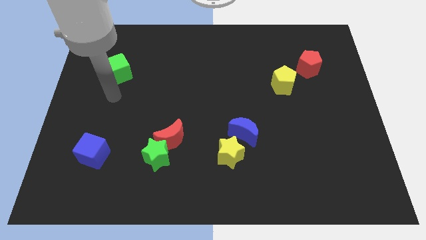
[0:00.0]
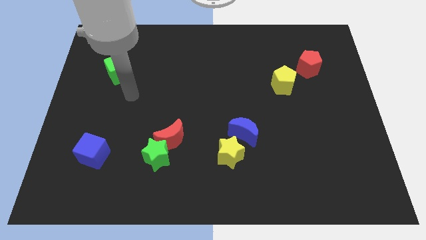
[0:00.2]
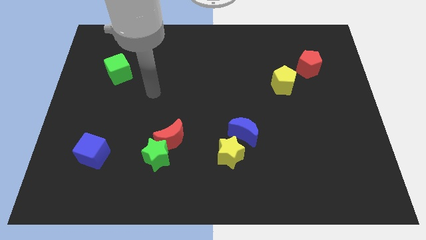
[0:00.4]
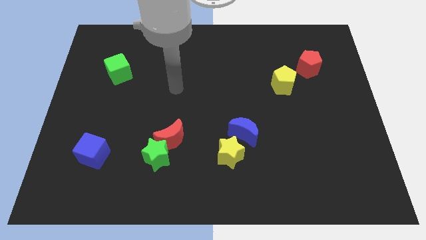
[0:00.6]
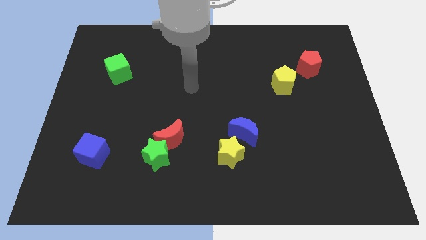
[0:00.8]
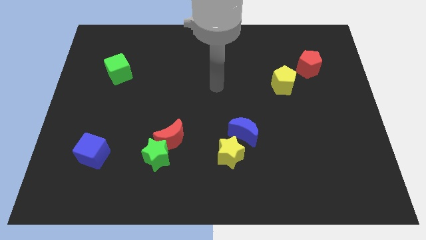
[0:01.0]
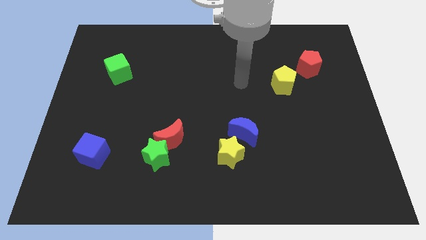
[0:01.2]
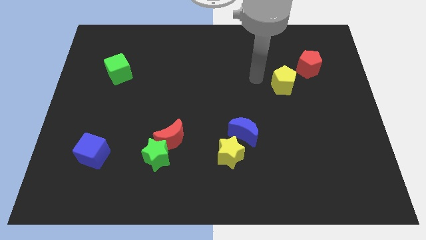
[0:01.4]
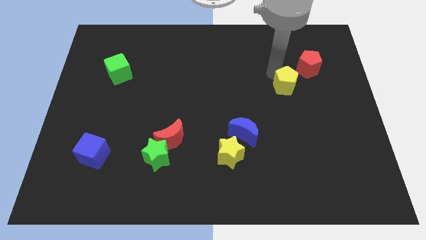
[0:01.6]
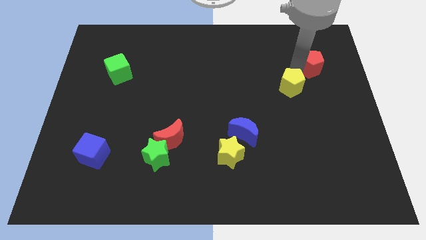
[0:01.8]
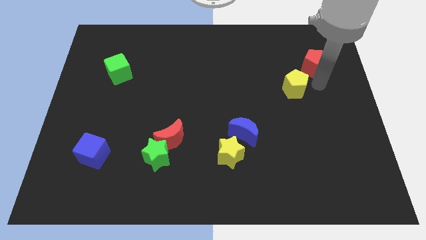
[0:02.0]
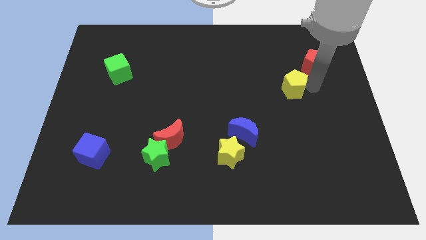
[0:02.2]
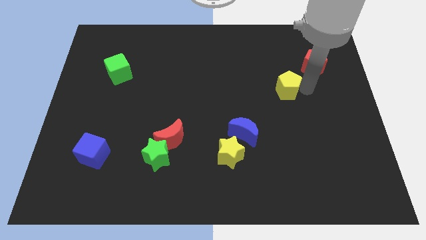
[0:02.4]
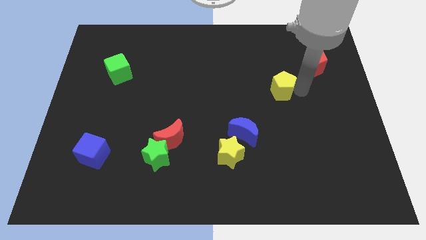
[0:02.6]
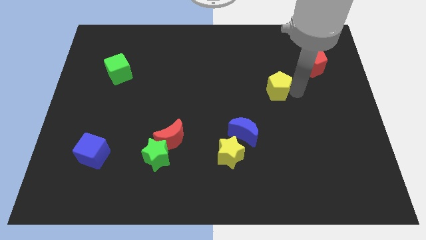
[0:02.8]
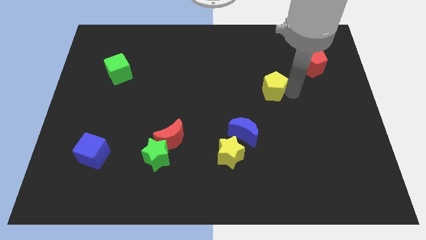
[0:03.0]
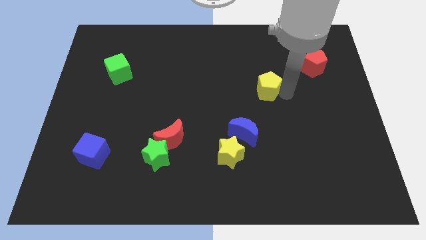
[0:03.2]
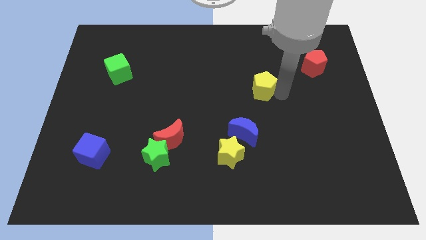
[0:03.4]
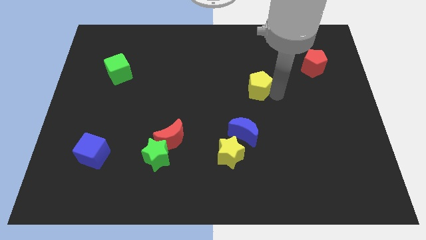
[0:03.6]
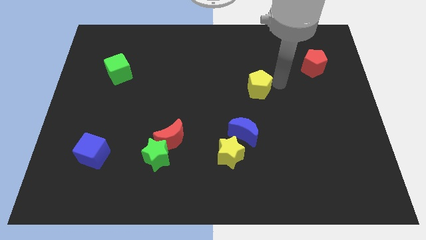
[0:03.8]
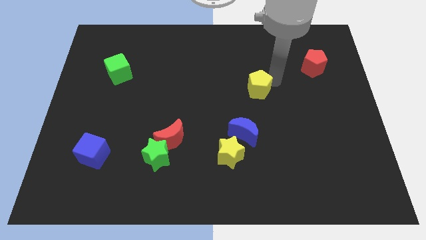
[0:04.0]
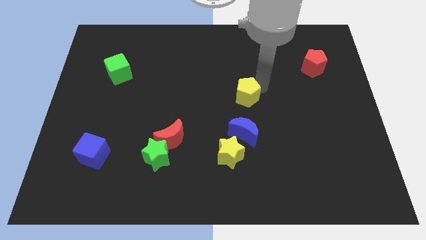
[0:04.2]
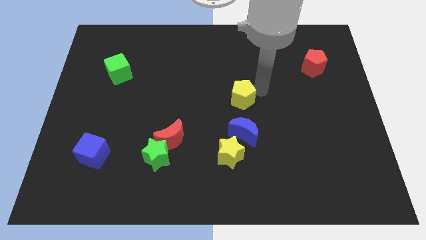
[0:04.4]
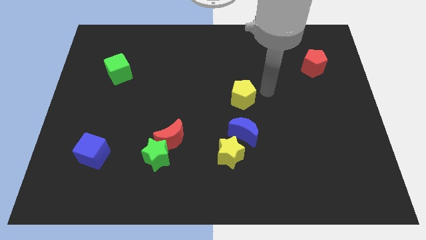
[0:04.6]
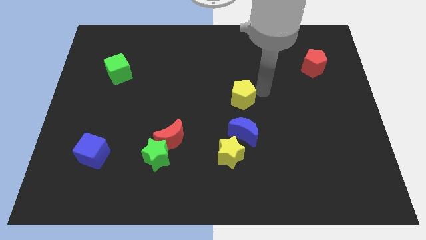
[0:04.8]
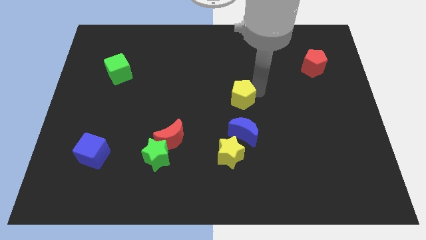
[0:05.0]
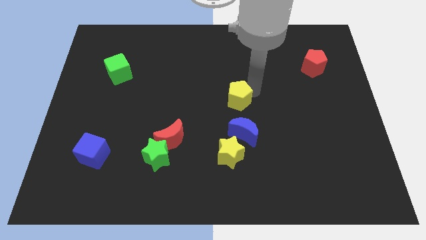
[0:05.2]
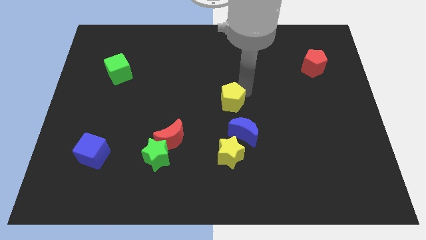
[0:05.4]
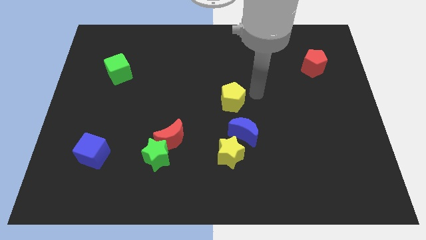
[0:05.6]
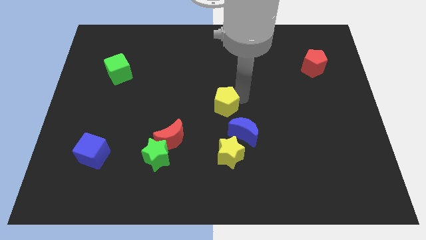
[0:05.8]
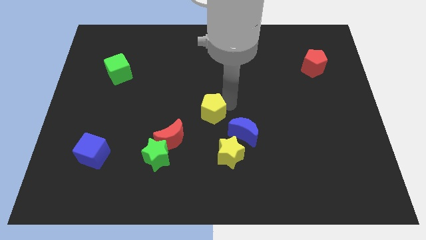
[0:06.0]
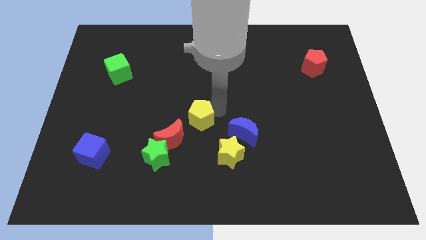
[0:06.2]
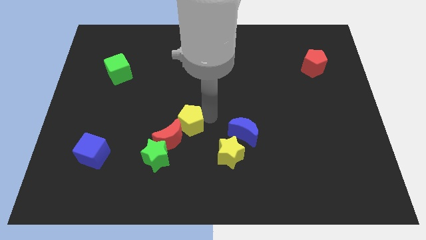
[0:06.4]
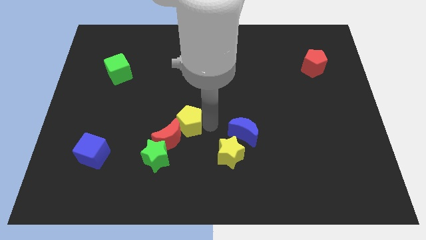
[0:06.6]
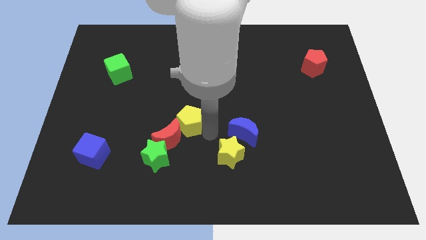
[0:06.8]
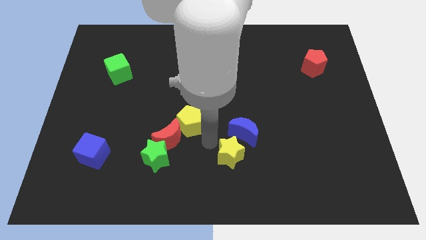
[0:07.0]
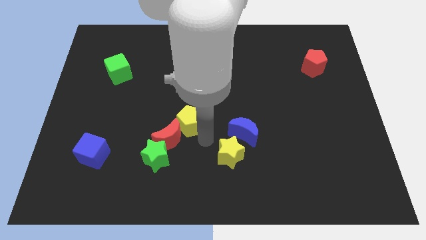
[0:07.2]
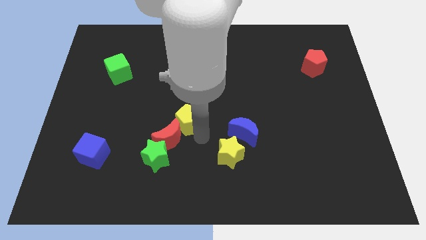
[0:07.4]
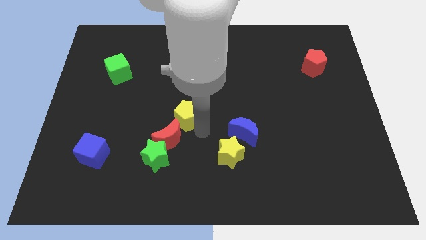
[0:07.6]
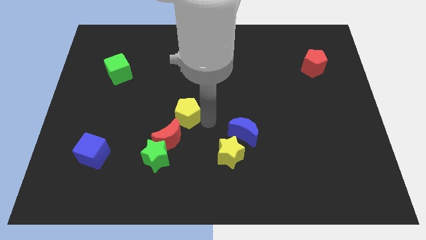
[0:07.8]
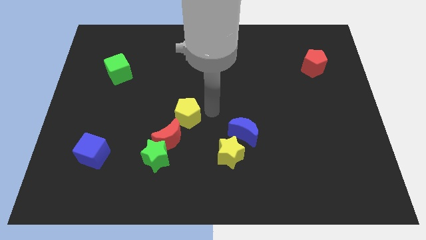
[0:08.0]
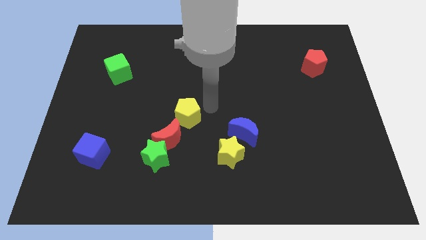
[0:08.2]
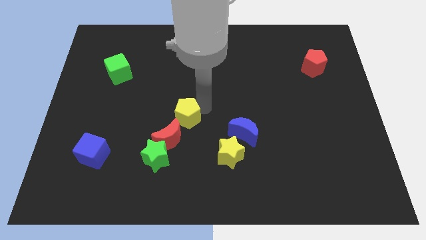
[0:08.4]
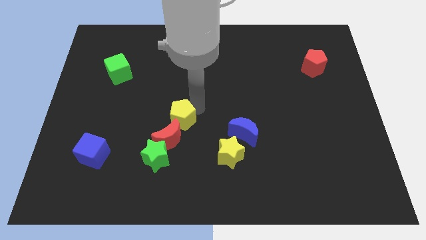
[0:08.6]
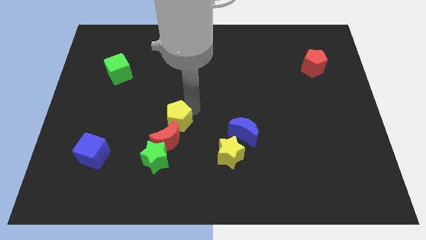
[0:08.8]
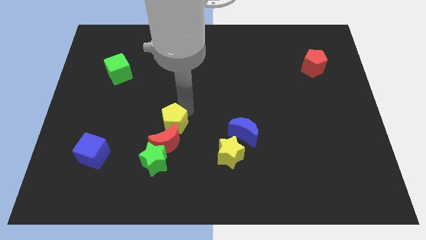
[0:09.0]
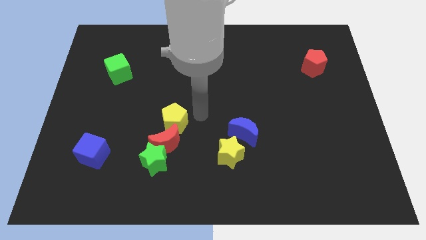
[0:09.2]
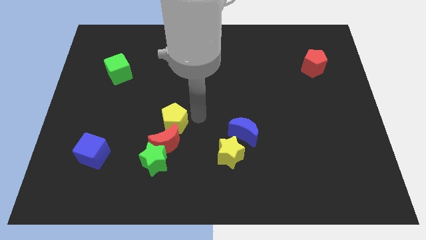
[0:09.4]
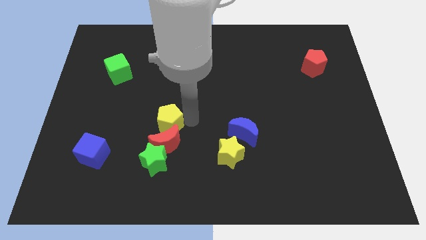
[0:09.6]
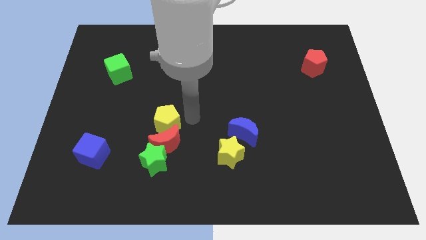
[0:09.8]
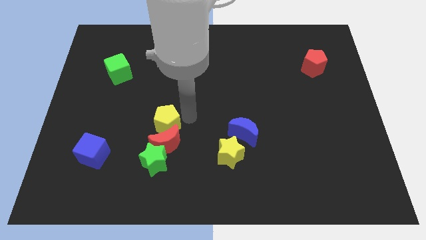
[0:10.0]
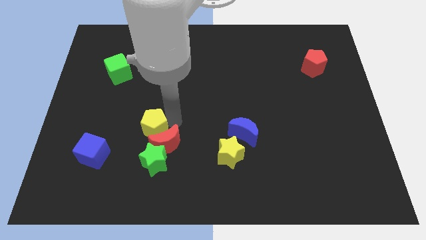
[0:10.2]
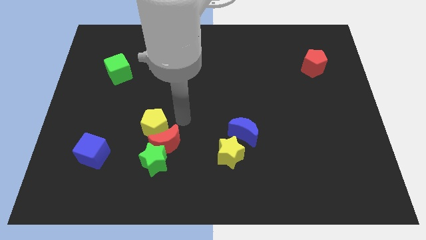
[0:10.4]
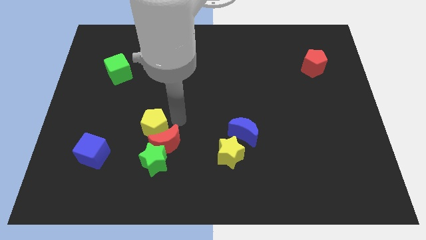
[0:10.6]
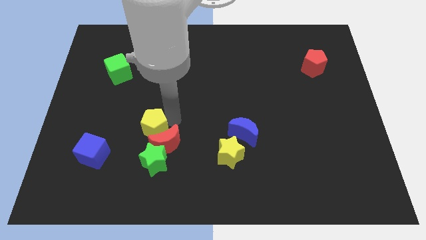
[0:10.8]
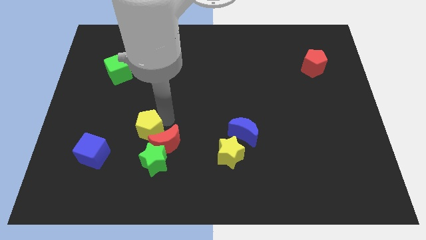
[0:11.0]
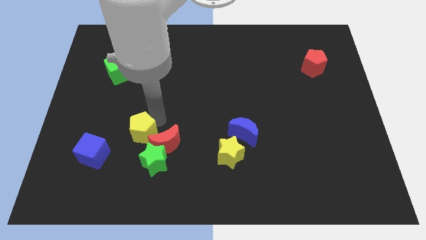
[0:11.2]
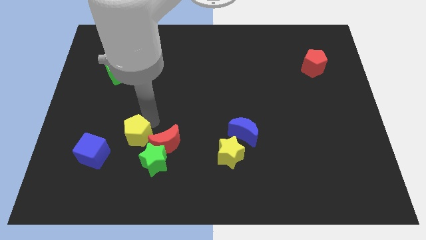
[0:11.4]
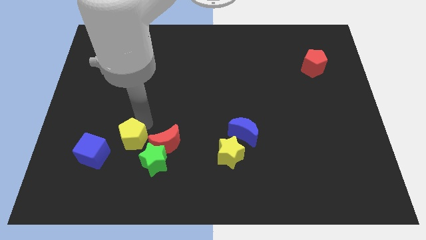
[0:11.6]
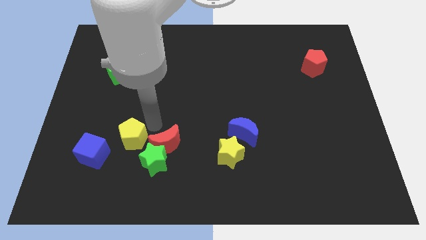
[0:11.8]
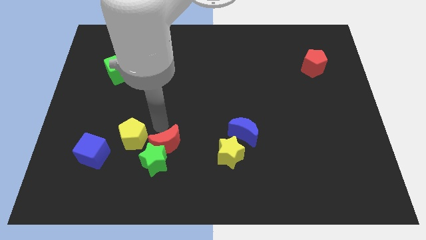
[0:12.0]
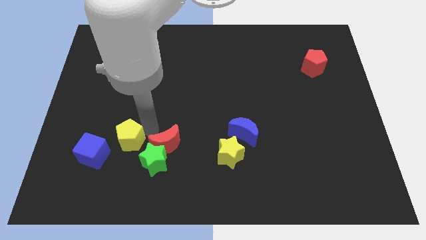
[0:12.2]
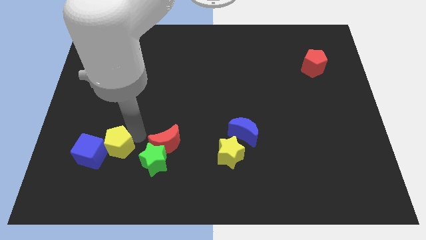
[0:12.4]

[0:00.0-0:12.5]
push the yellow pentagon close to the blue cube

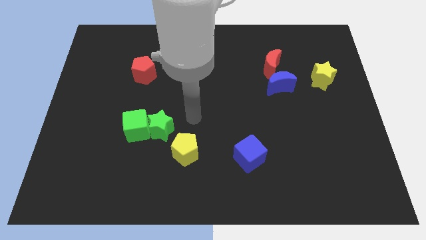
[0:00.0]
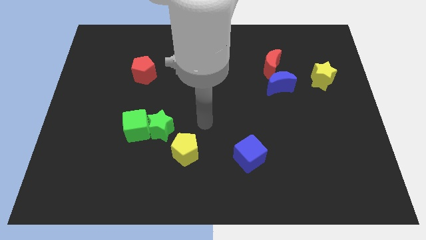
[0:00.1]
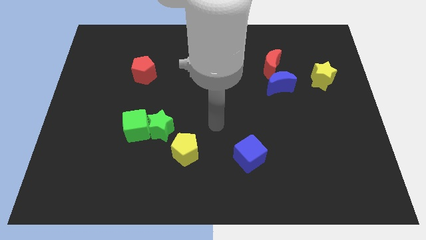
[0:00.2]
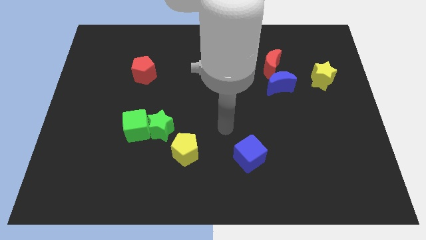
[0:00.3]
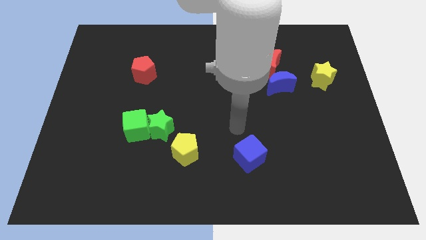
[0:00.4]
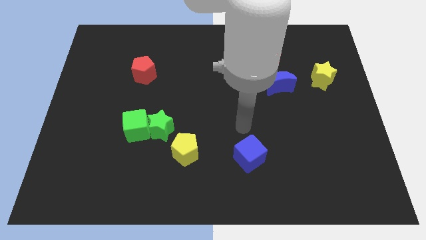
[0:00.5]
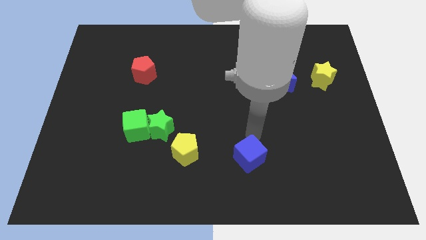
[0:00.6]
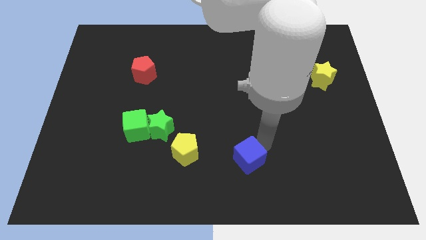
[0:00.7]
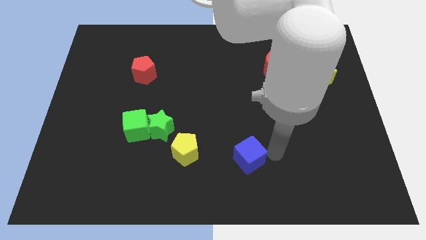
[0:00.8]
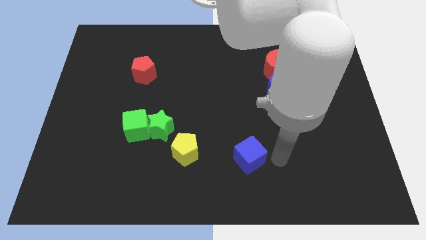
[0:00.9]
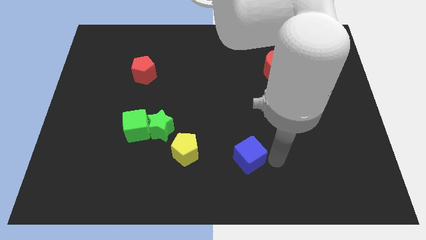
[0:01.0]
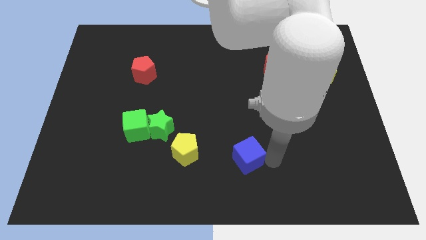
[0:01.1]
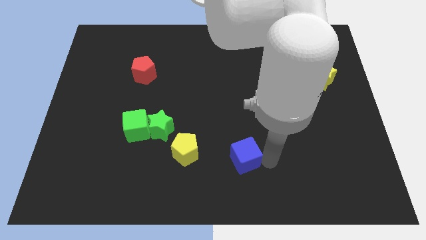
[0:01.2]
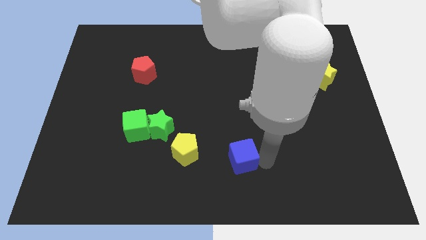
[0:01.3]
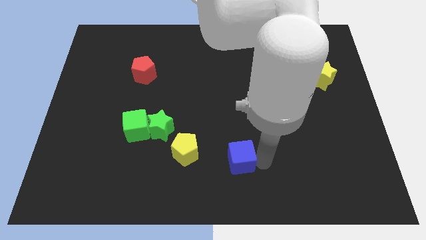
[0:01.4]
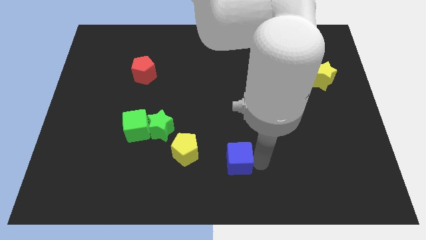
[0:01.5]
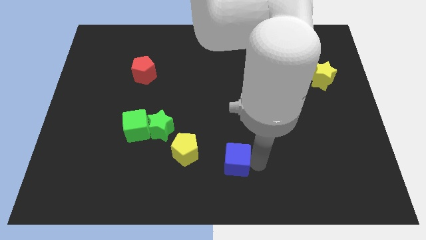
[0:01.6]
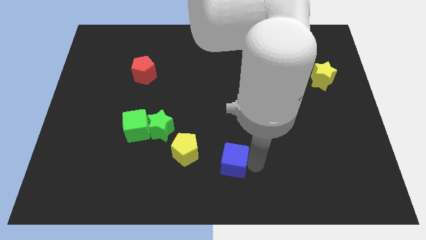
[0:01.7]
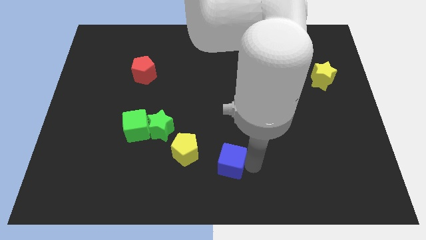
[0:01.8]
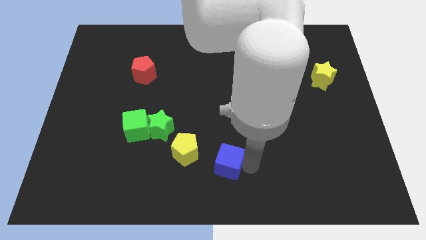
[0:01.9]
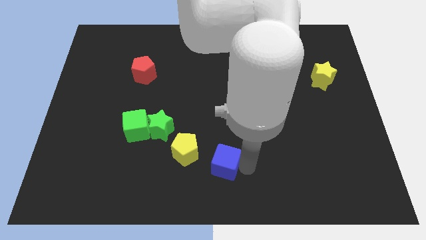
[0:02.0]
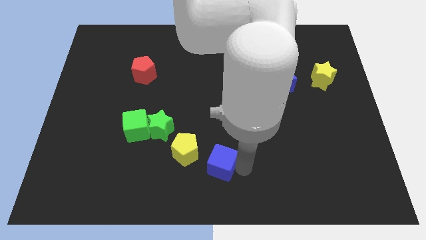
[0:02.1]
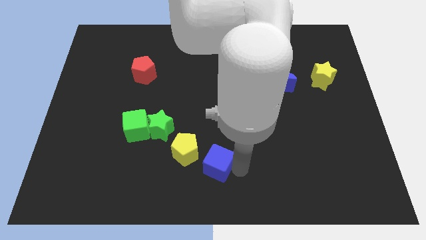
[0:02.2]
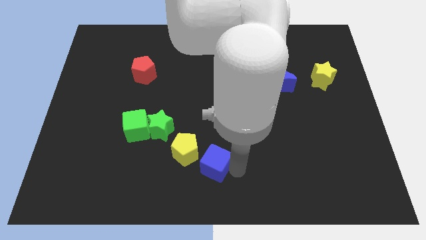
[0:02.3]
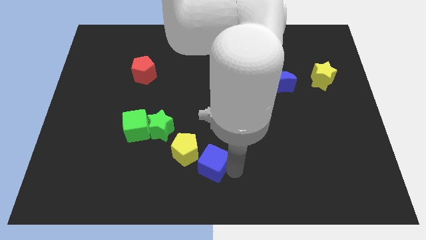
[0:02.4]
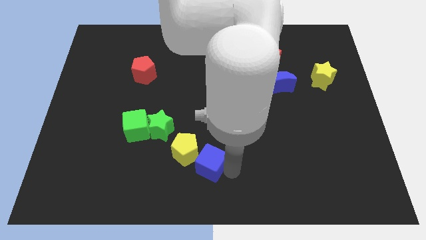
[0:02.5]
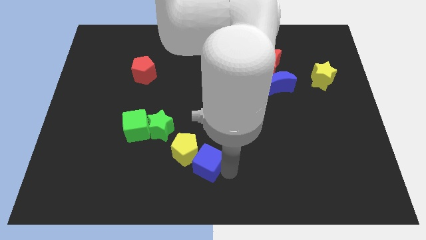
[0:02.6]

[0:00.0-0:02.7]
move the blue cube close to the yellow pentagon
